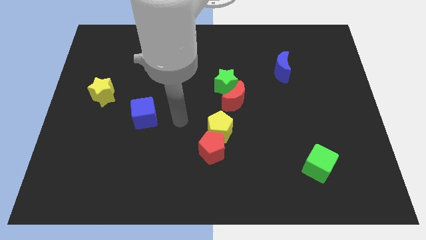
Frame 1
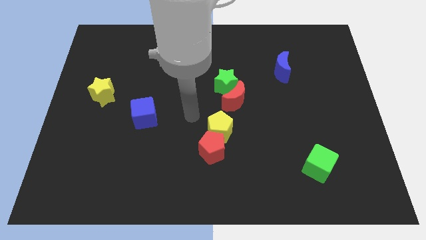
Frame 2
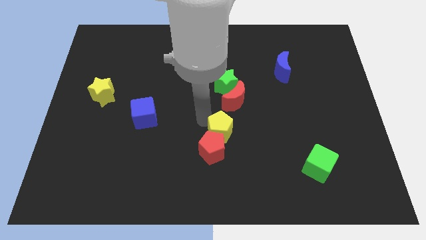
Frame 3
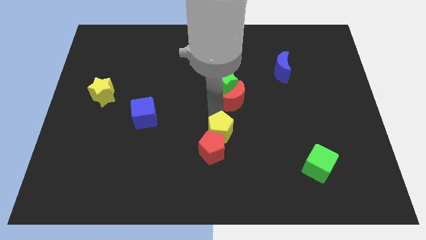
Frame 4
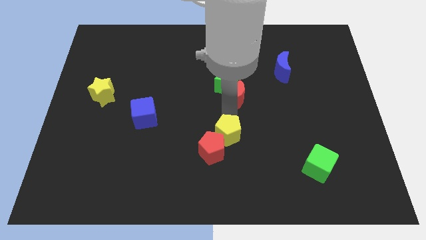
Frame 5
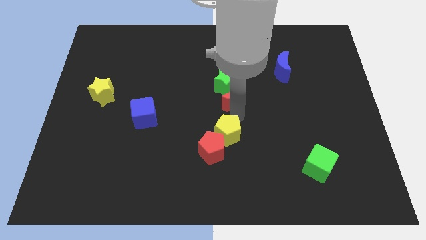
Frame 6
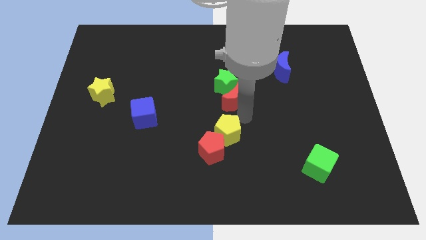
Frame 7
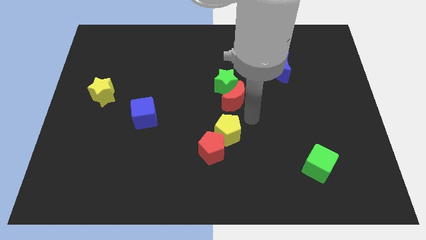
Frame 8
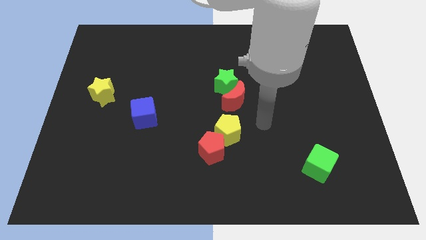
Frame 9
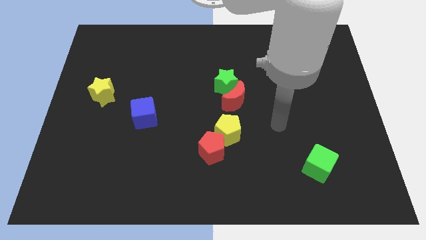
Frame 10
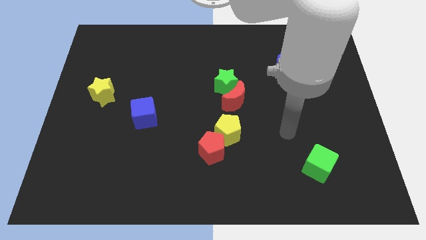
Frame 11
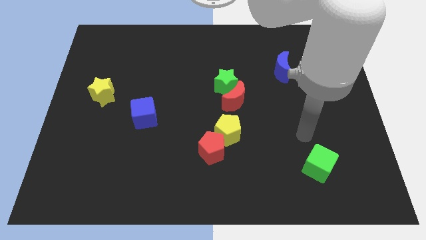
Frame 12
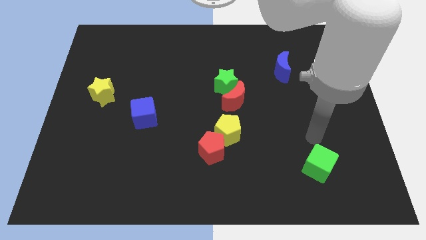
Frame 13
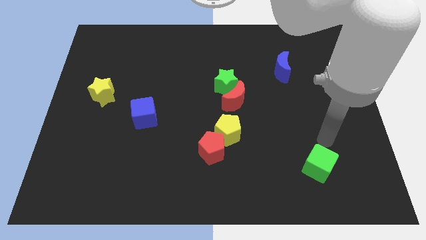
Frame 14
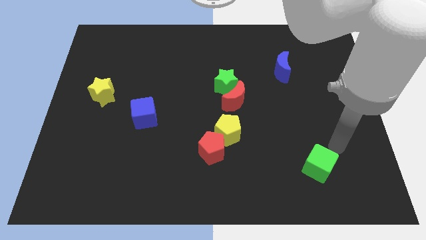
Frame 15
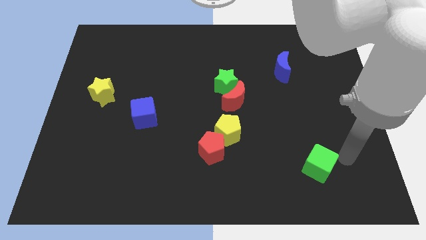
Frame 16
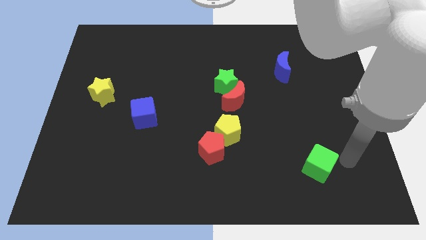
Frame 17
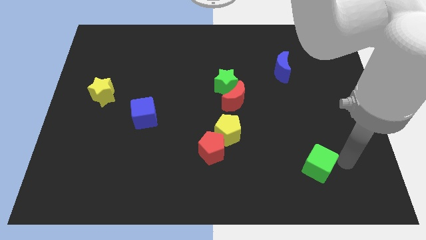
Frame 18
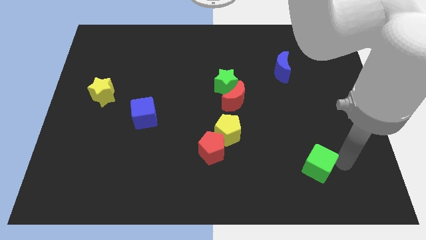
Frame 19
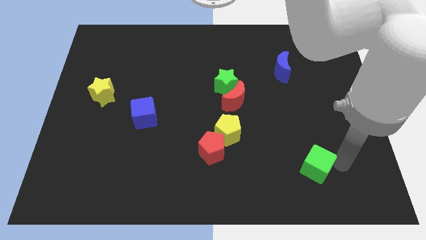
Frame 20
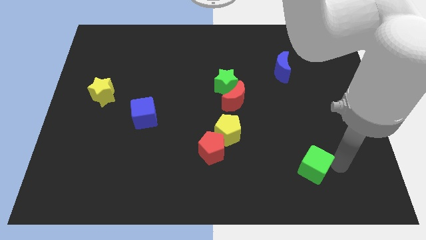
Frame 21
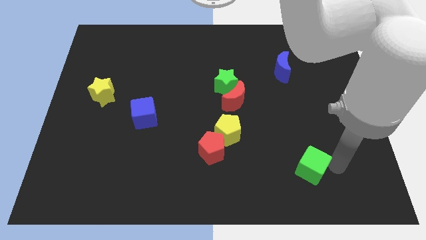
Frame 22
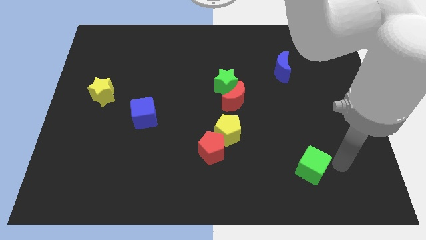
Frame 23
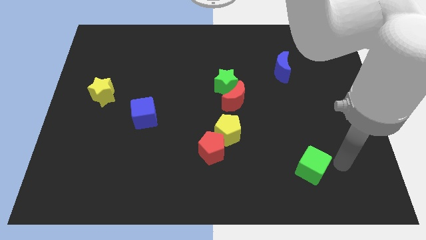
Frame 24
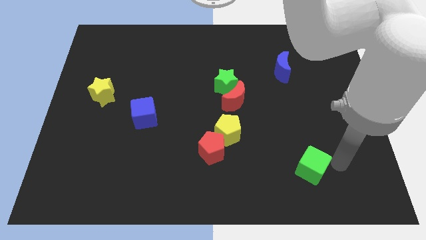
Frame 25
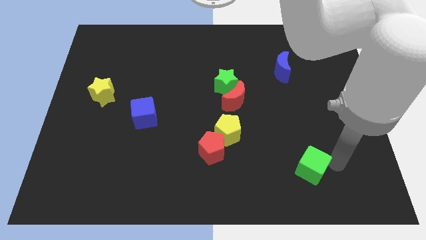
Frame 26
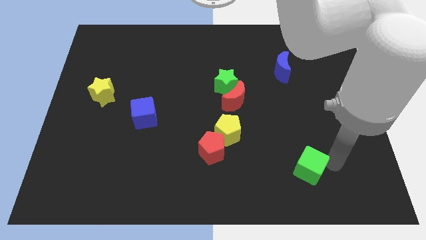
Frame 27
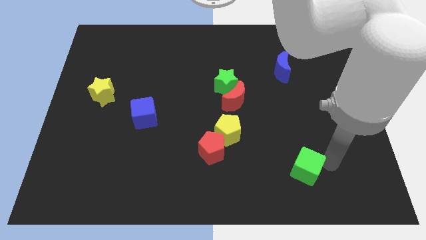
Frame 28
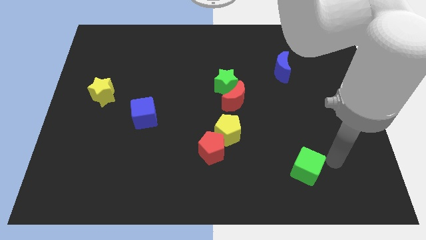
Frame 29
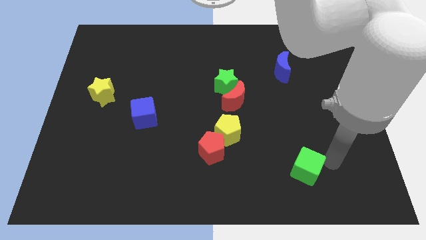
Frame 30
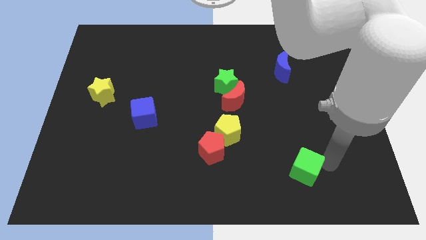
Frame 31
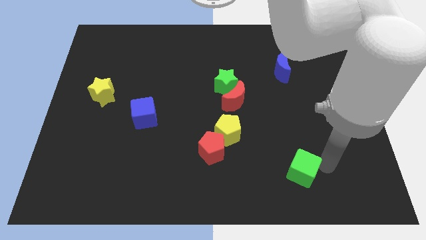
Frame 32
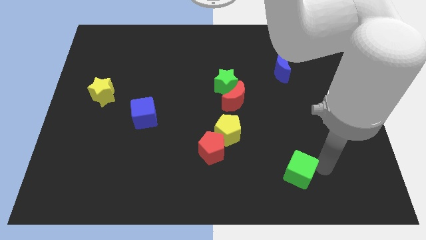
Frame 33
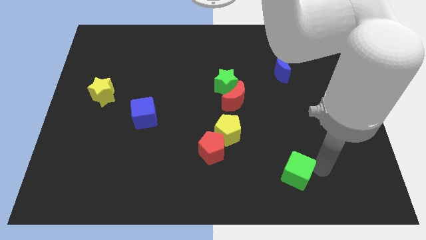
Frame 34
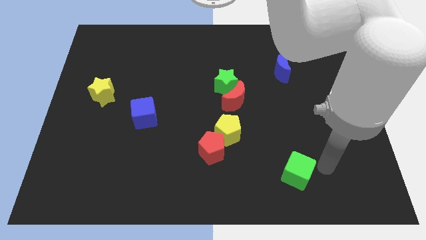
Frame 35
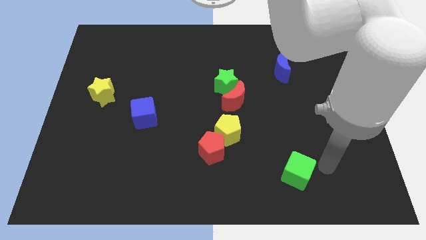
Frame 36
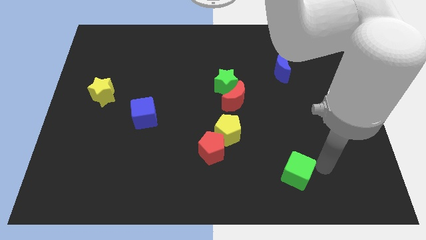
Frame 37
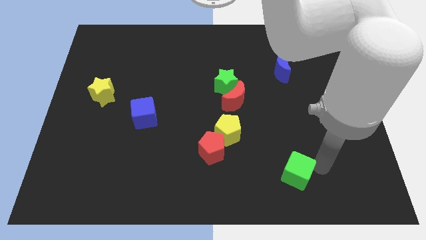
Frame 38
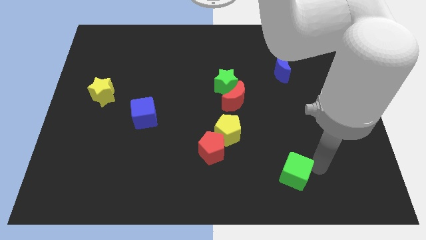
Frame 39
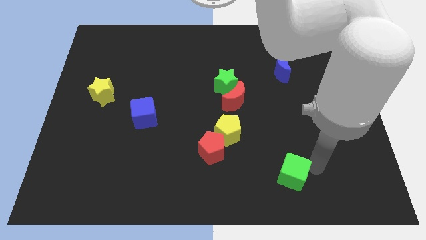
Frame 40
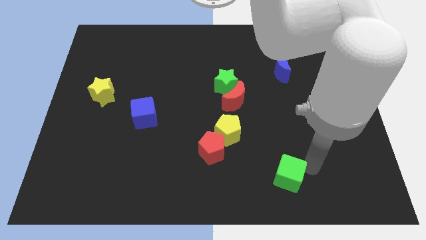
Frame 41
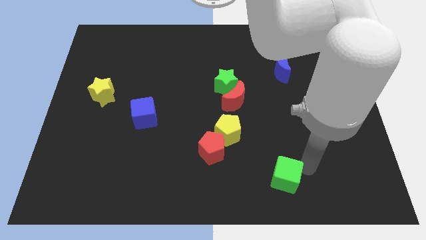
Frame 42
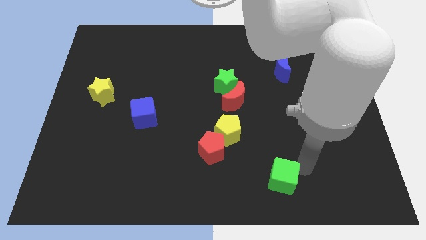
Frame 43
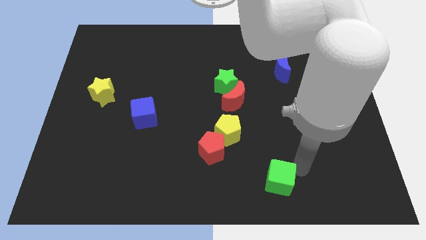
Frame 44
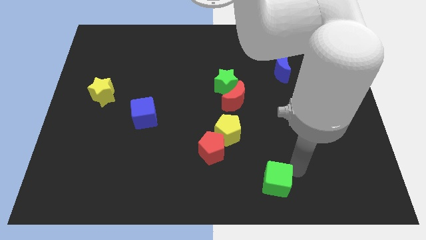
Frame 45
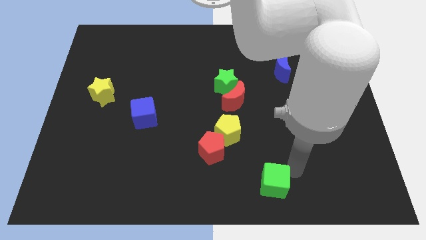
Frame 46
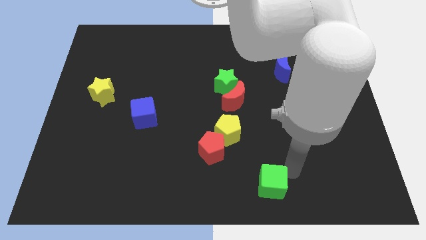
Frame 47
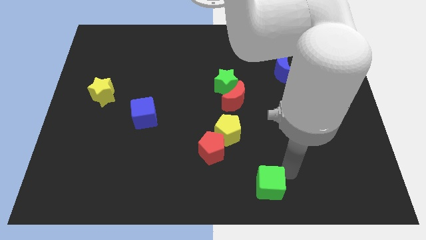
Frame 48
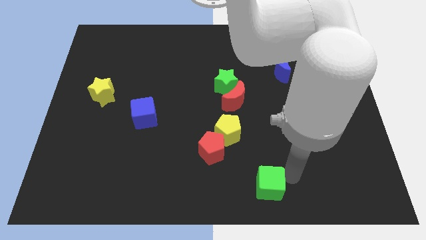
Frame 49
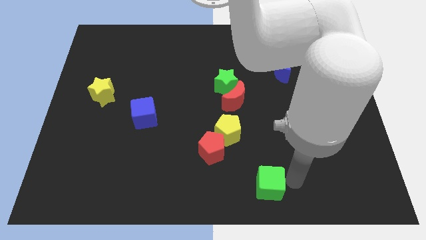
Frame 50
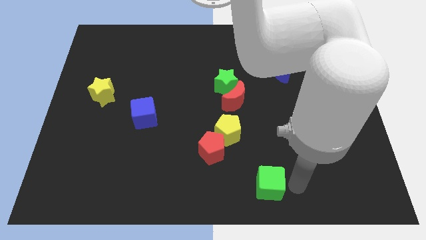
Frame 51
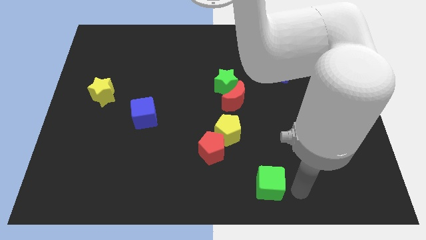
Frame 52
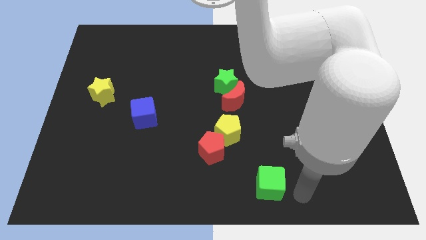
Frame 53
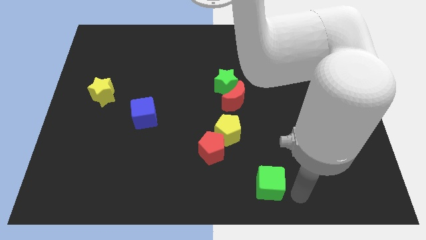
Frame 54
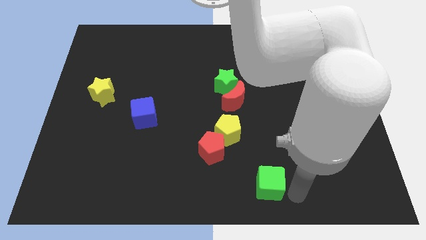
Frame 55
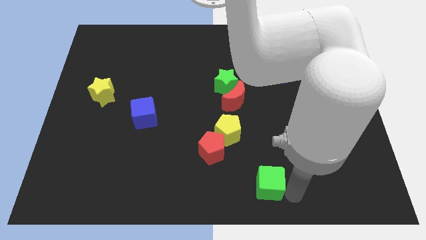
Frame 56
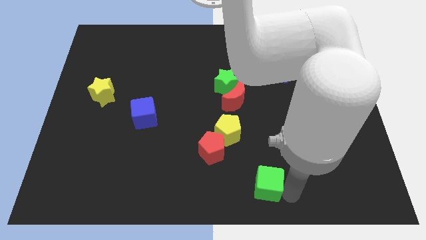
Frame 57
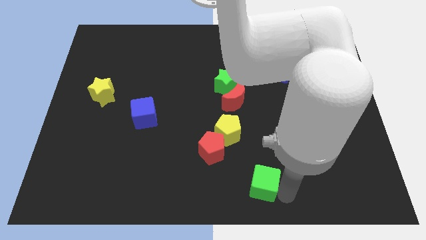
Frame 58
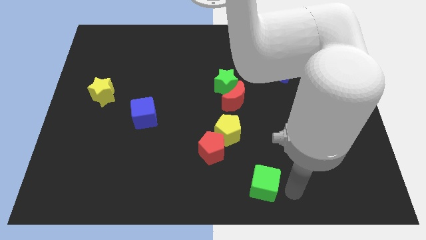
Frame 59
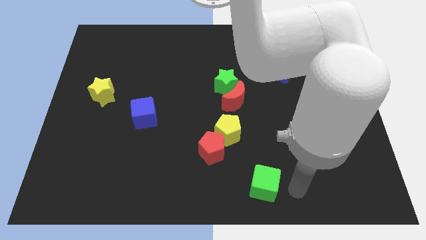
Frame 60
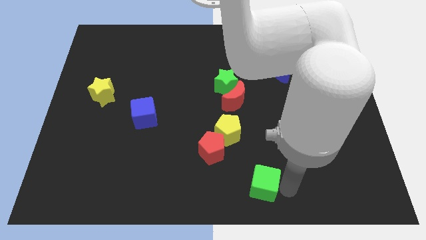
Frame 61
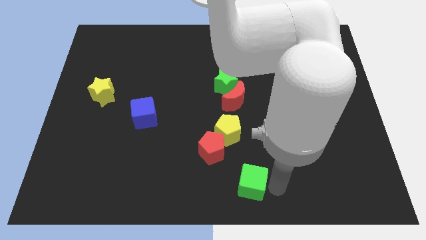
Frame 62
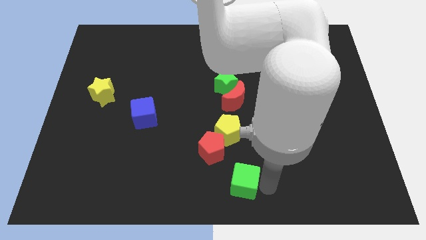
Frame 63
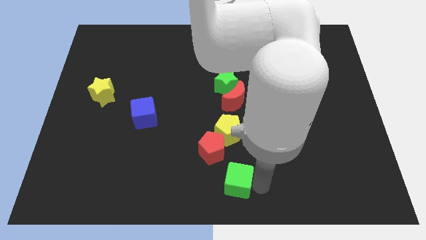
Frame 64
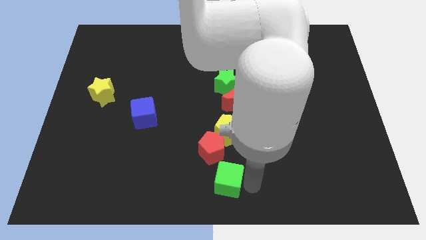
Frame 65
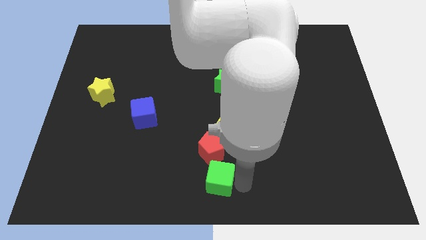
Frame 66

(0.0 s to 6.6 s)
slide the green cube left

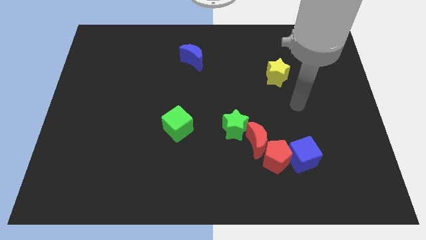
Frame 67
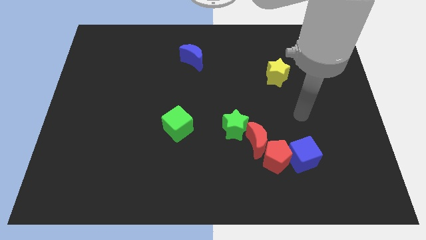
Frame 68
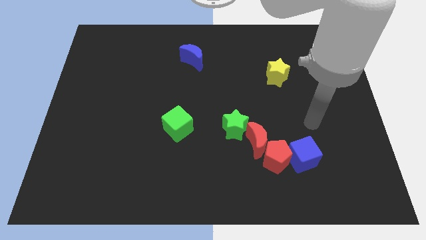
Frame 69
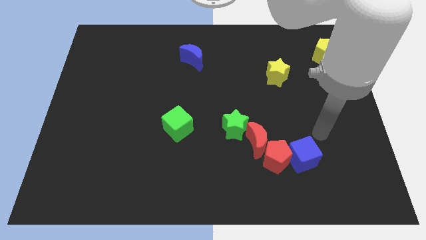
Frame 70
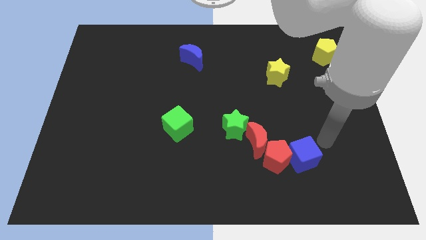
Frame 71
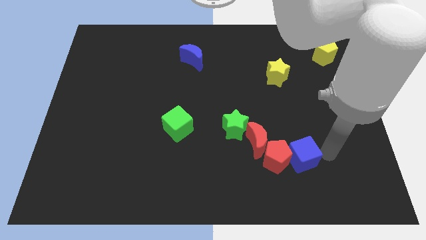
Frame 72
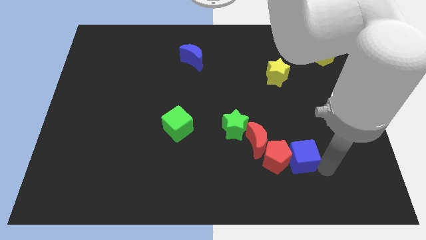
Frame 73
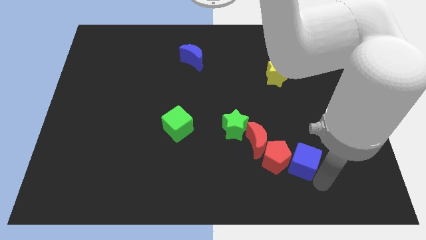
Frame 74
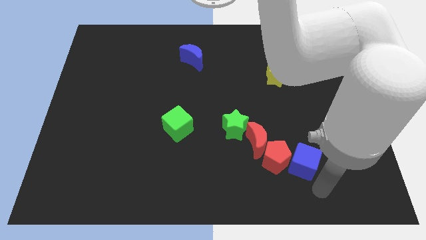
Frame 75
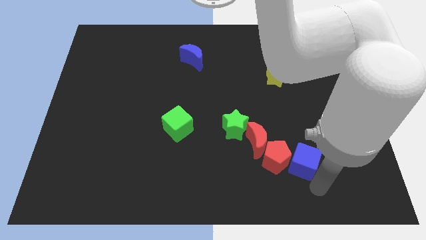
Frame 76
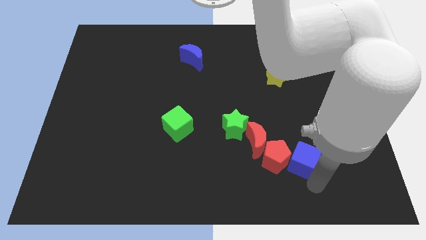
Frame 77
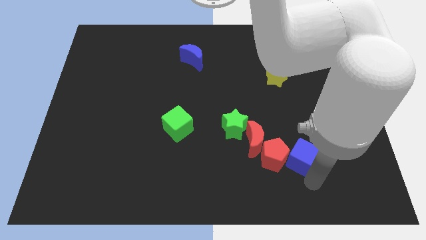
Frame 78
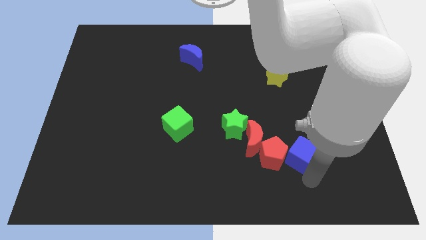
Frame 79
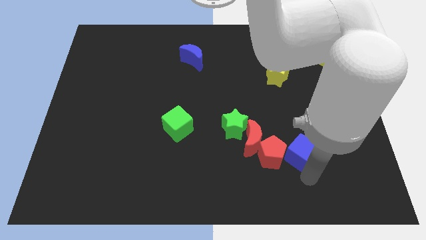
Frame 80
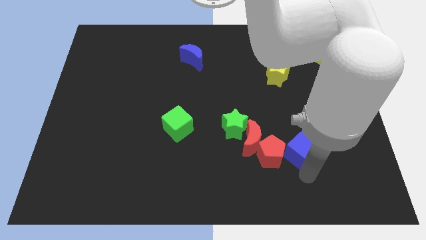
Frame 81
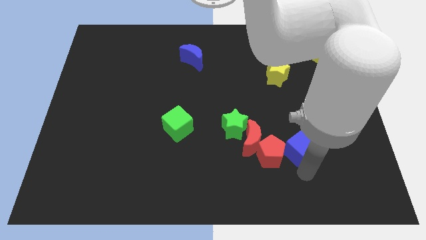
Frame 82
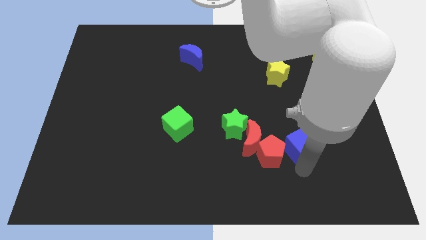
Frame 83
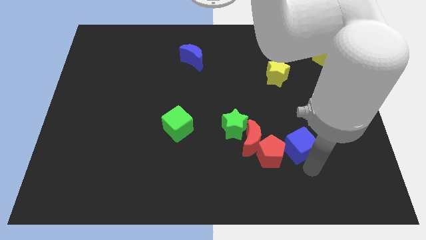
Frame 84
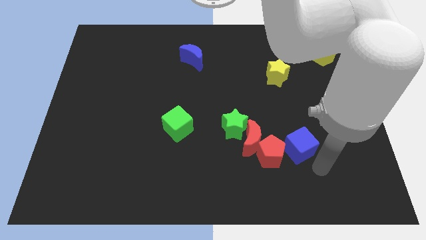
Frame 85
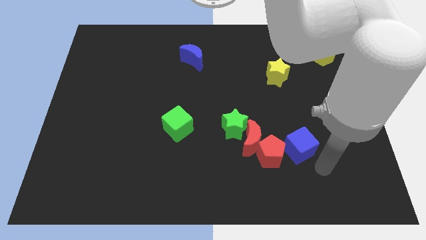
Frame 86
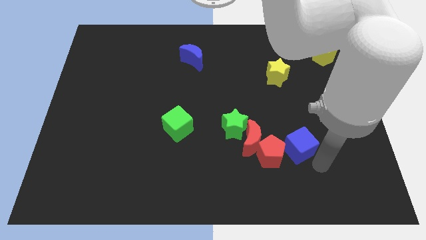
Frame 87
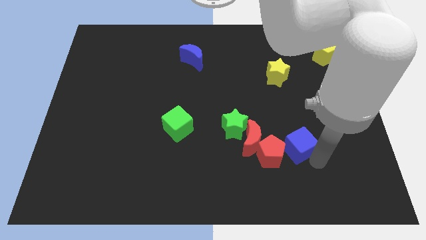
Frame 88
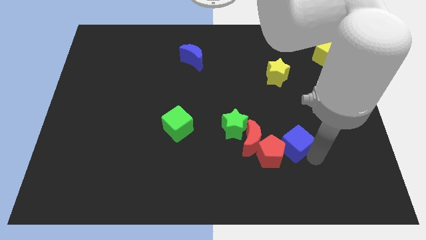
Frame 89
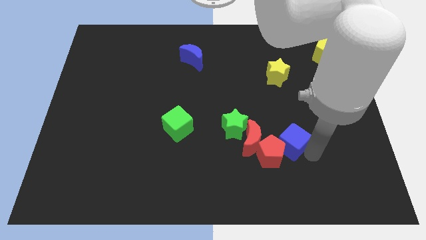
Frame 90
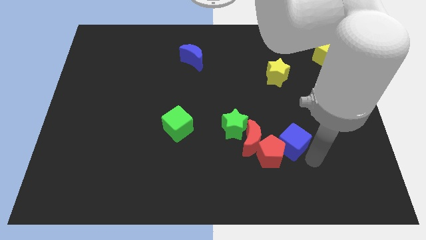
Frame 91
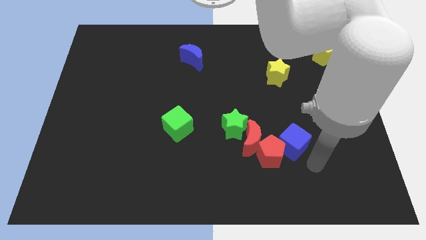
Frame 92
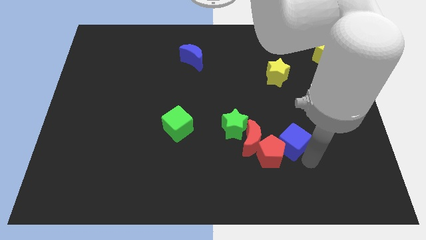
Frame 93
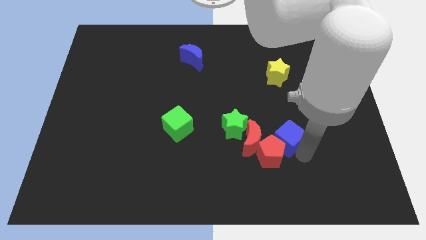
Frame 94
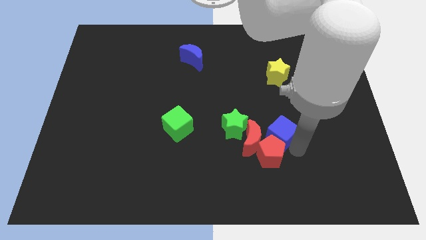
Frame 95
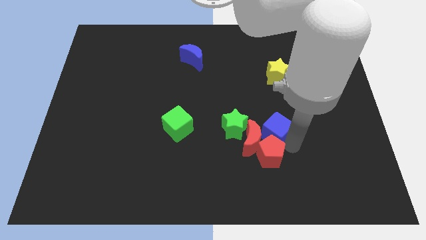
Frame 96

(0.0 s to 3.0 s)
push the blue cube upwards and left diagonally a bit
